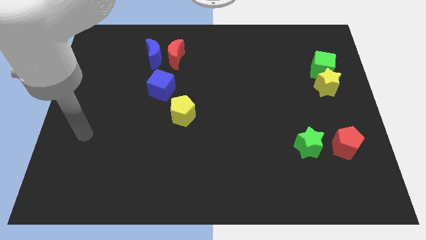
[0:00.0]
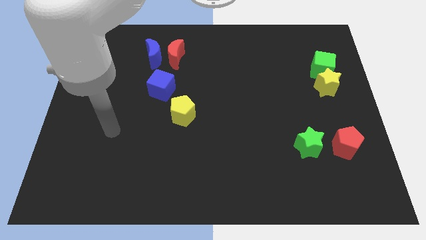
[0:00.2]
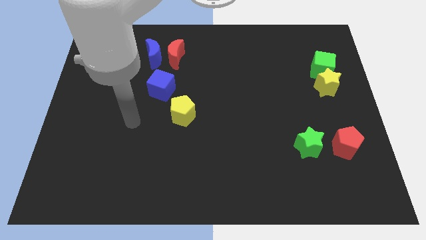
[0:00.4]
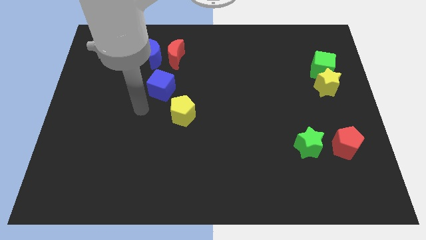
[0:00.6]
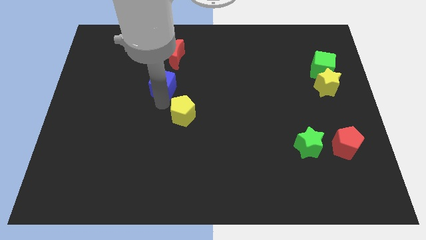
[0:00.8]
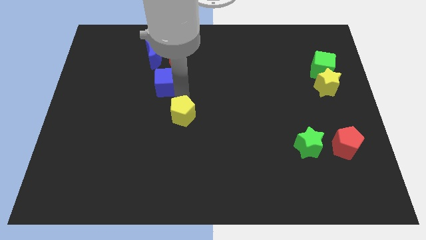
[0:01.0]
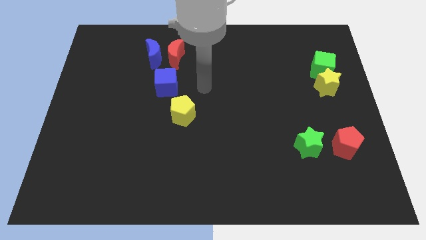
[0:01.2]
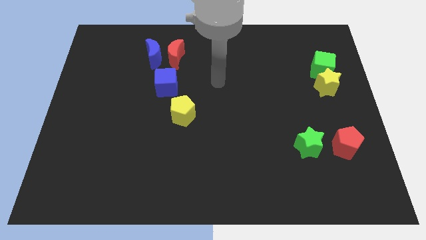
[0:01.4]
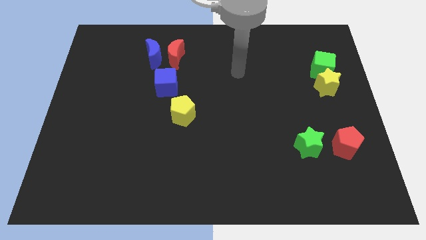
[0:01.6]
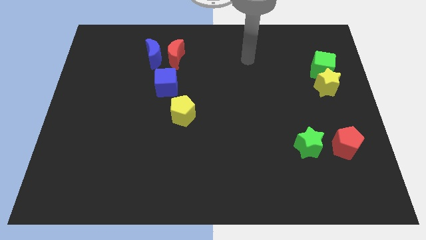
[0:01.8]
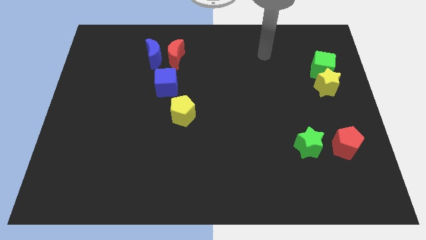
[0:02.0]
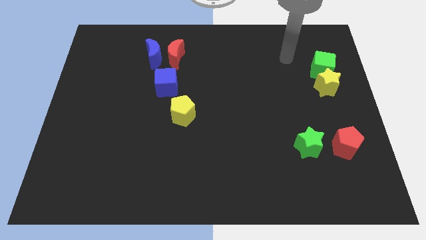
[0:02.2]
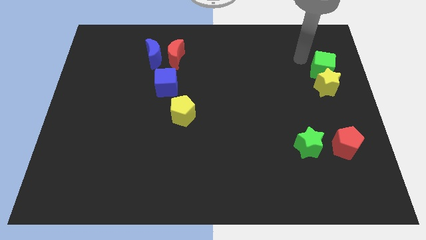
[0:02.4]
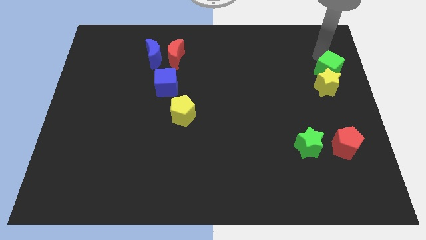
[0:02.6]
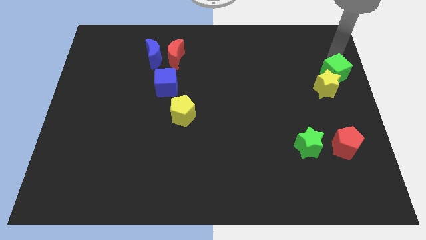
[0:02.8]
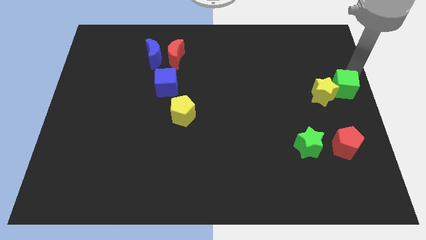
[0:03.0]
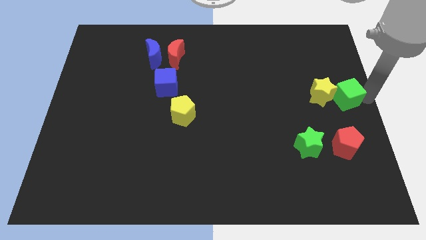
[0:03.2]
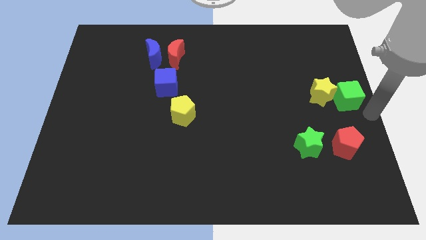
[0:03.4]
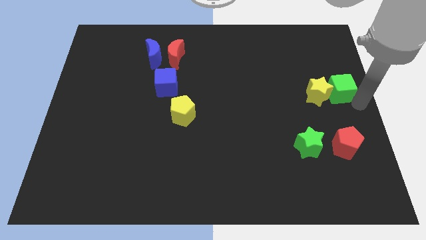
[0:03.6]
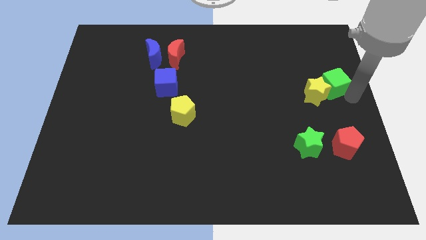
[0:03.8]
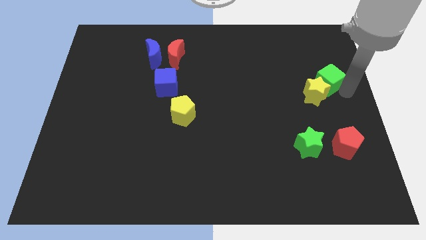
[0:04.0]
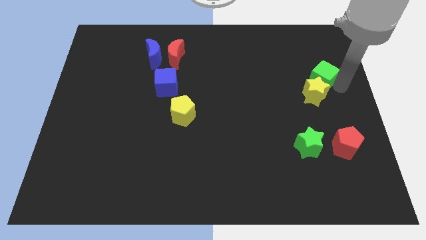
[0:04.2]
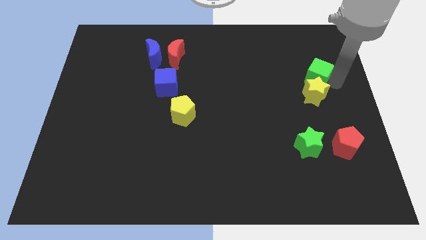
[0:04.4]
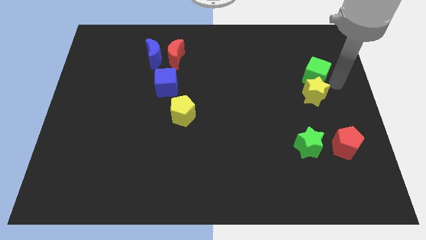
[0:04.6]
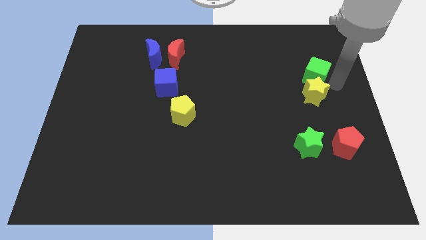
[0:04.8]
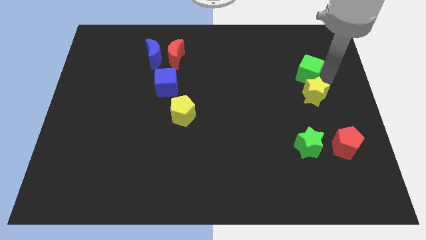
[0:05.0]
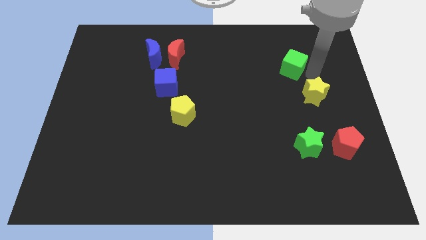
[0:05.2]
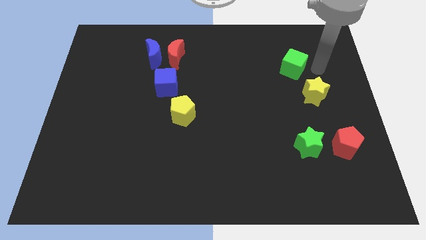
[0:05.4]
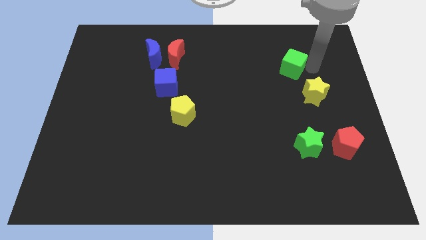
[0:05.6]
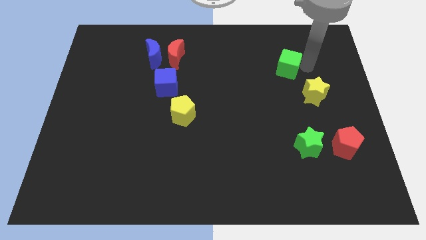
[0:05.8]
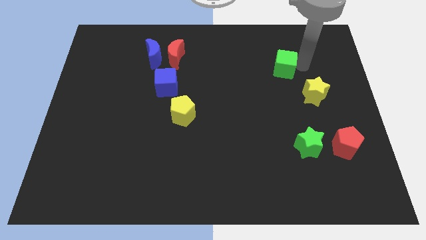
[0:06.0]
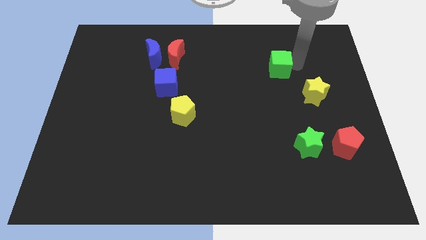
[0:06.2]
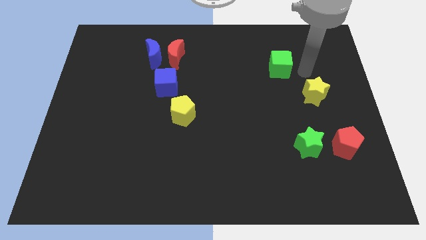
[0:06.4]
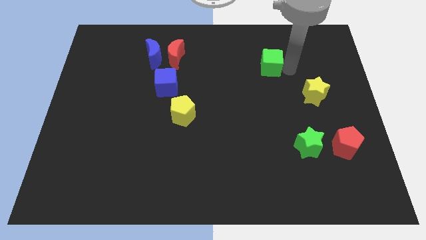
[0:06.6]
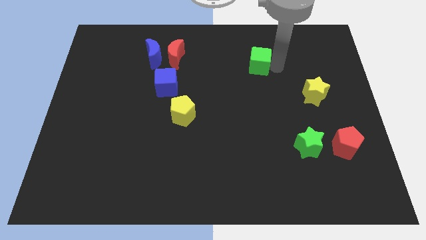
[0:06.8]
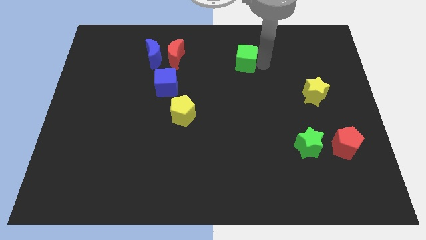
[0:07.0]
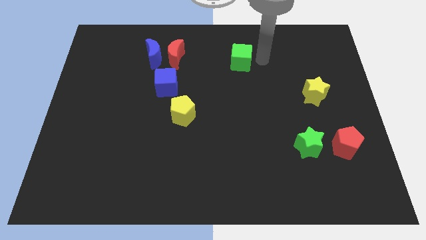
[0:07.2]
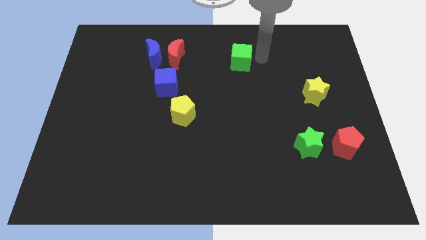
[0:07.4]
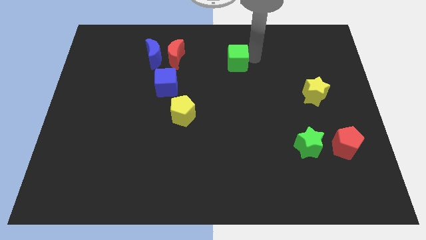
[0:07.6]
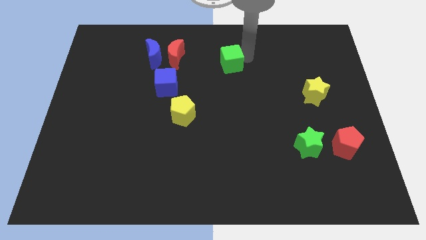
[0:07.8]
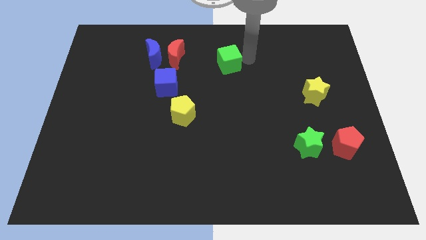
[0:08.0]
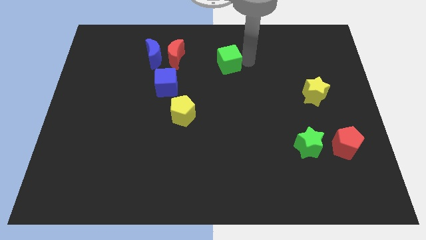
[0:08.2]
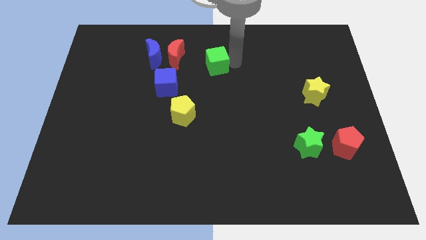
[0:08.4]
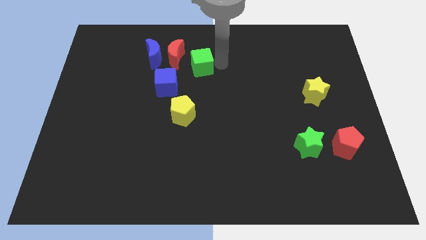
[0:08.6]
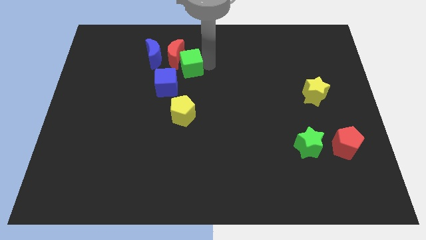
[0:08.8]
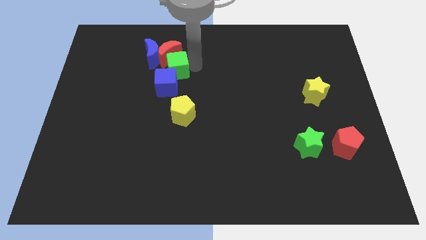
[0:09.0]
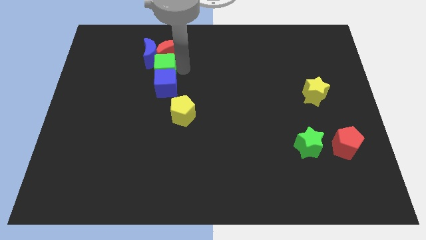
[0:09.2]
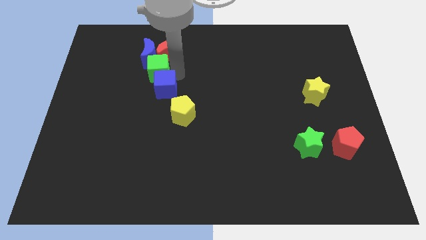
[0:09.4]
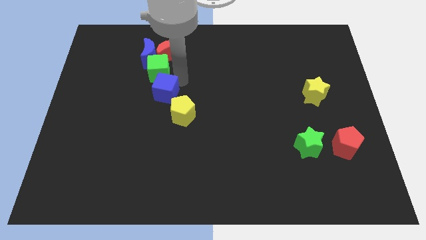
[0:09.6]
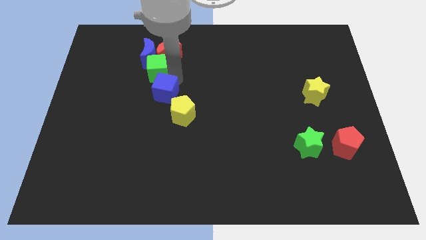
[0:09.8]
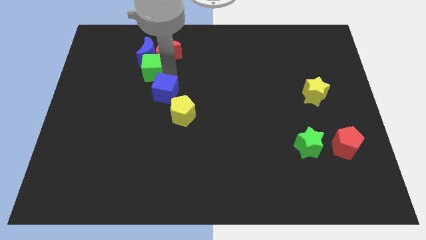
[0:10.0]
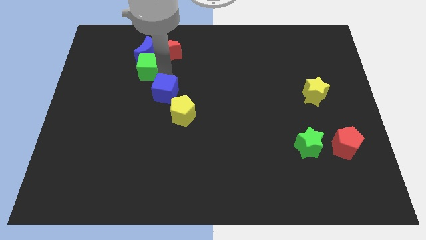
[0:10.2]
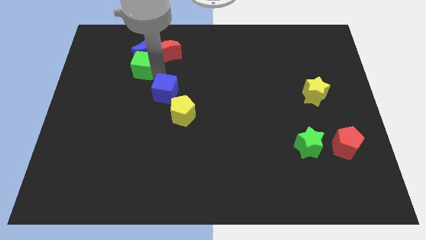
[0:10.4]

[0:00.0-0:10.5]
push the green cube left of the red moon

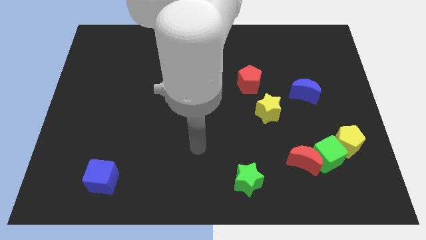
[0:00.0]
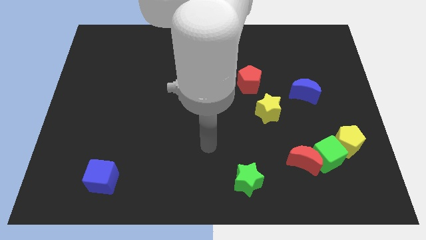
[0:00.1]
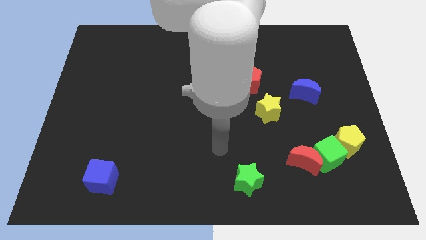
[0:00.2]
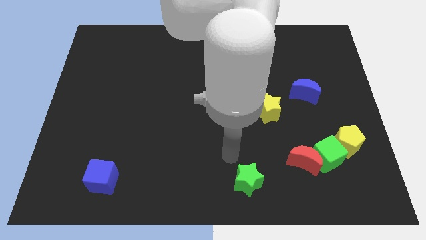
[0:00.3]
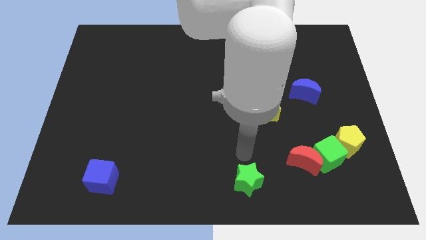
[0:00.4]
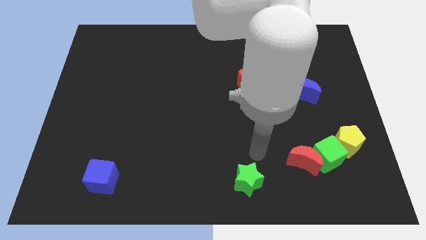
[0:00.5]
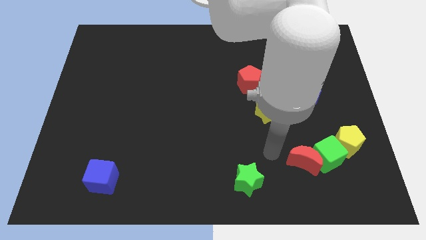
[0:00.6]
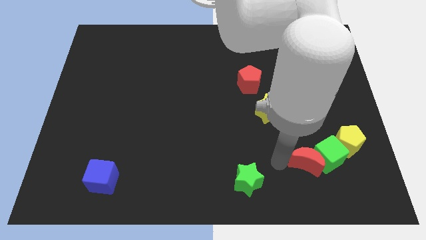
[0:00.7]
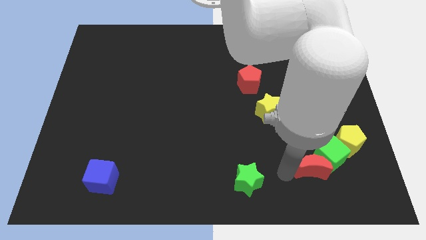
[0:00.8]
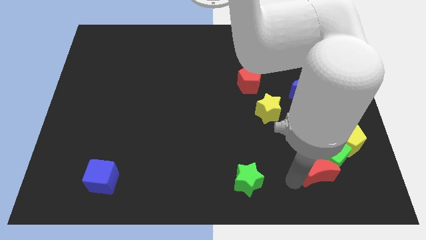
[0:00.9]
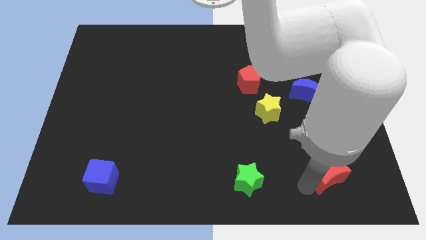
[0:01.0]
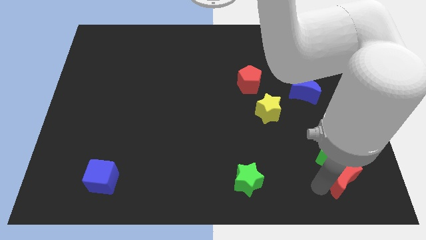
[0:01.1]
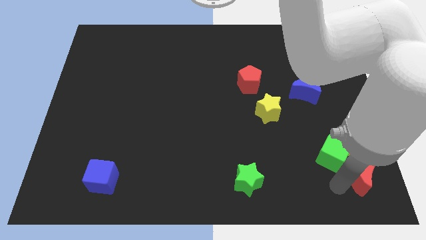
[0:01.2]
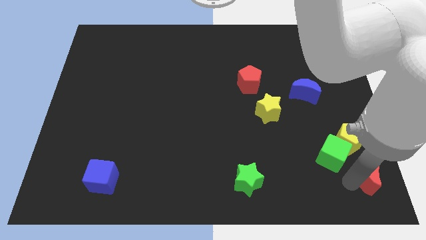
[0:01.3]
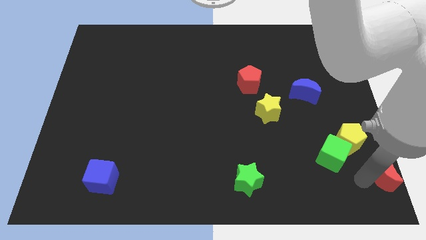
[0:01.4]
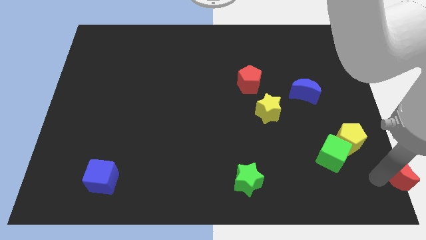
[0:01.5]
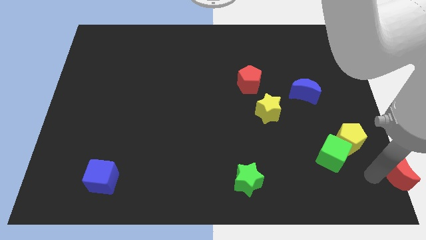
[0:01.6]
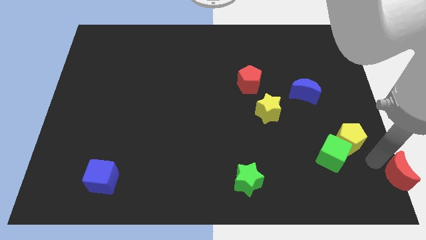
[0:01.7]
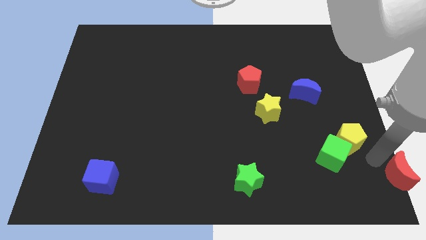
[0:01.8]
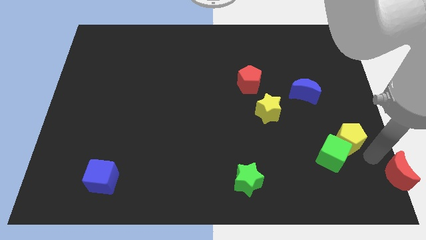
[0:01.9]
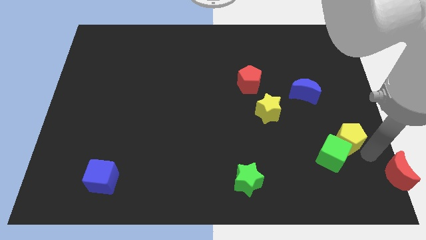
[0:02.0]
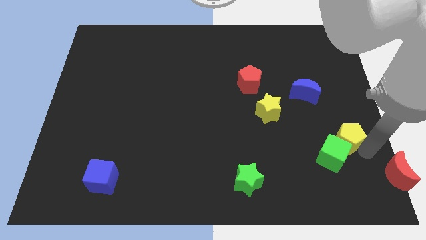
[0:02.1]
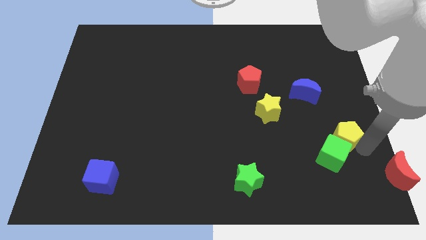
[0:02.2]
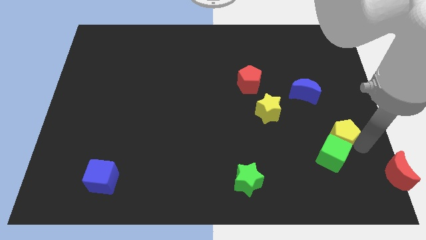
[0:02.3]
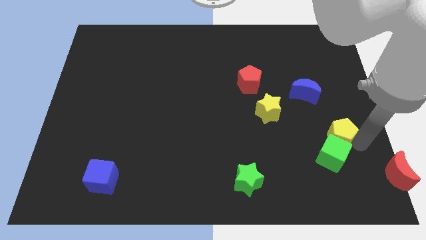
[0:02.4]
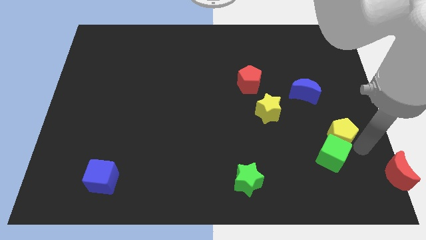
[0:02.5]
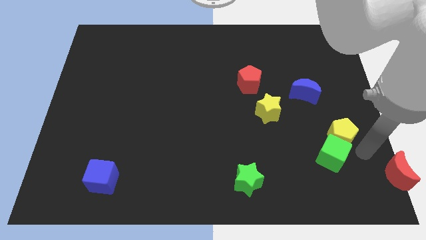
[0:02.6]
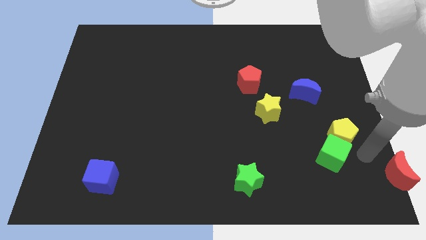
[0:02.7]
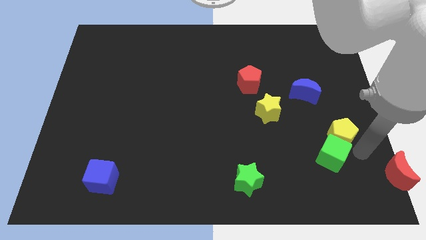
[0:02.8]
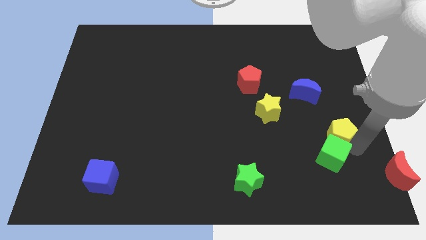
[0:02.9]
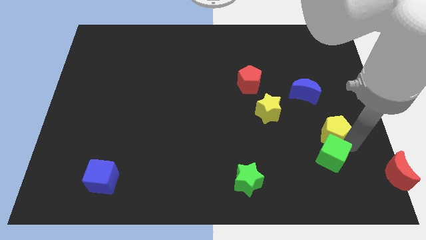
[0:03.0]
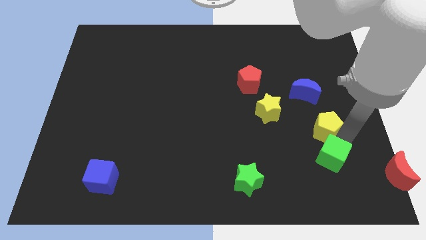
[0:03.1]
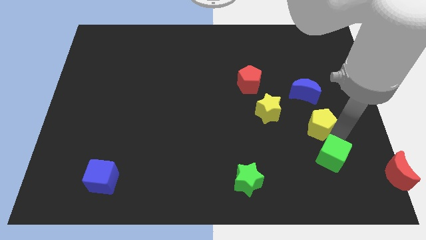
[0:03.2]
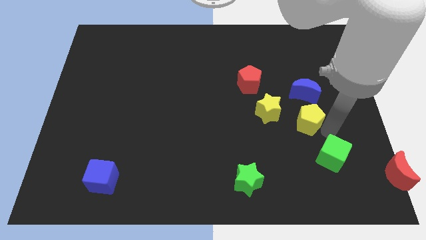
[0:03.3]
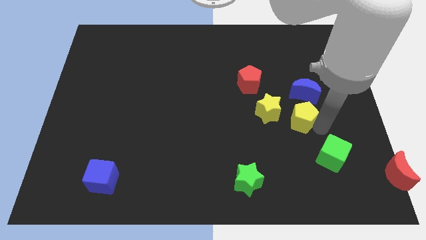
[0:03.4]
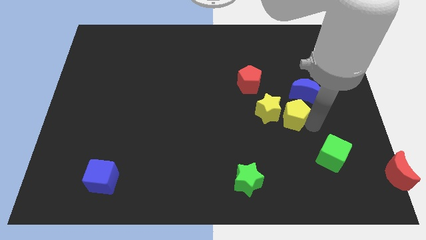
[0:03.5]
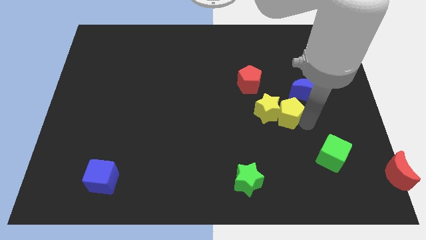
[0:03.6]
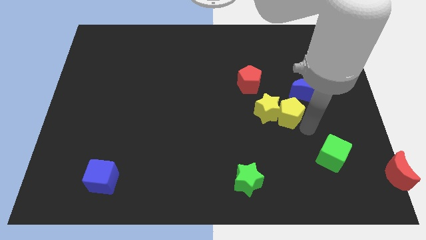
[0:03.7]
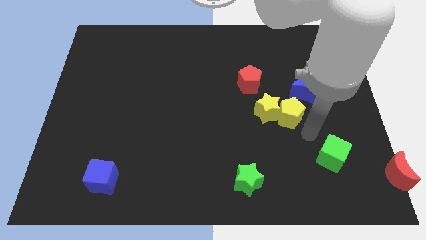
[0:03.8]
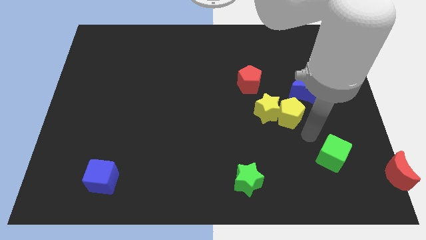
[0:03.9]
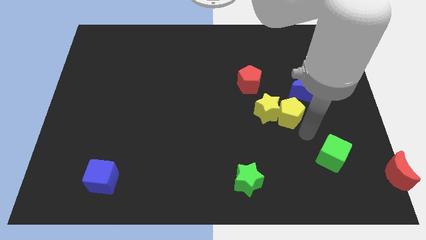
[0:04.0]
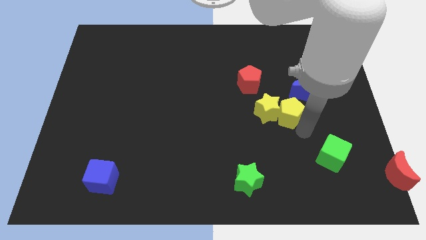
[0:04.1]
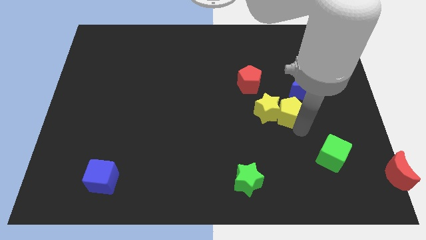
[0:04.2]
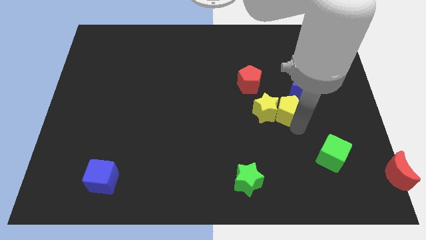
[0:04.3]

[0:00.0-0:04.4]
move the yellow pentagon diagonally down and to the right of the red pentagon
